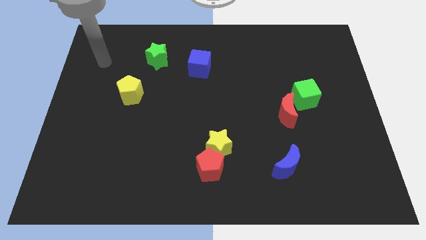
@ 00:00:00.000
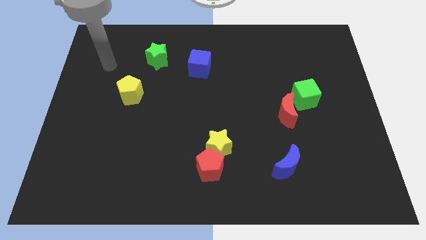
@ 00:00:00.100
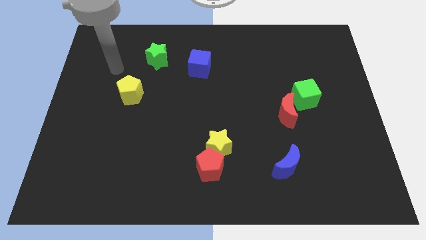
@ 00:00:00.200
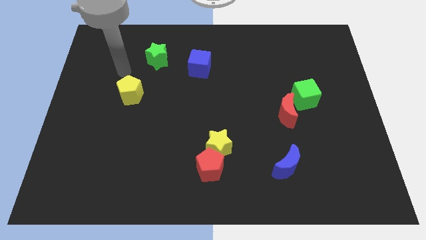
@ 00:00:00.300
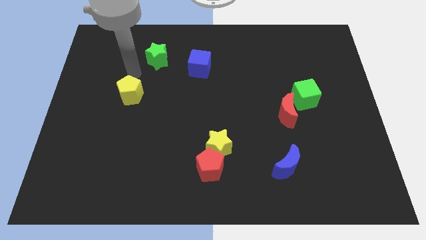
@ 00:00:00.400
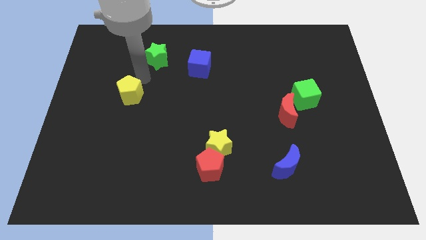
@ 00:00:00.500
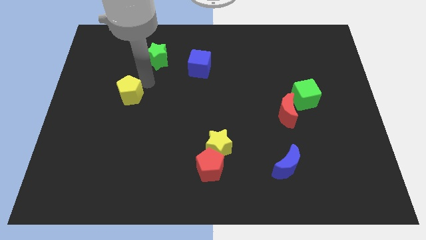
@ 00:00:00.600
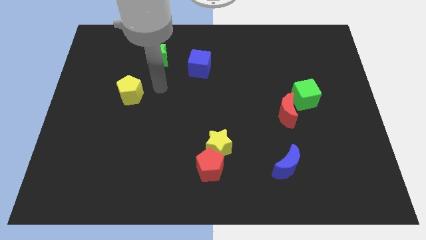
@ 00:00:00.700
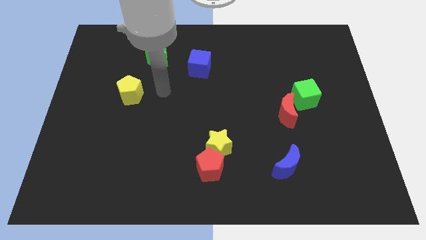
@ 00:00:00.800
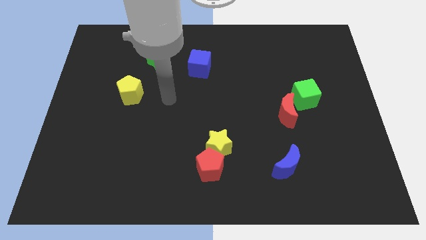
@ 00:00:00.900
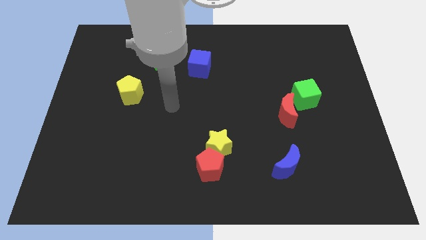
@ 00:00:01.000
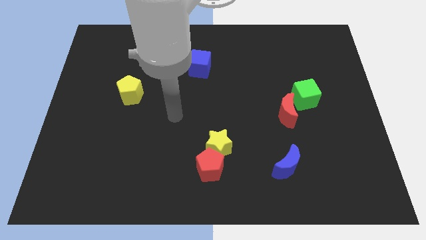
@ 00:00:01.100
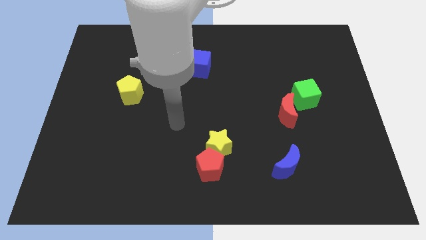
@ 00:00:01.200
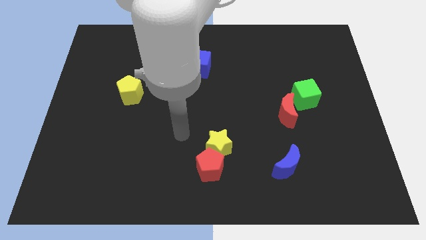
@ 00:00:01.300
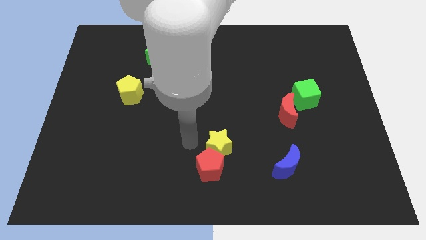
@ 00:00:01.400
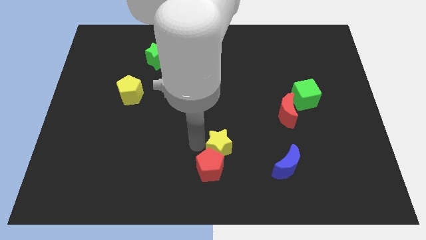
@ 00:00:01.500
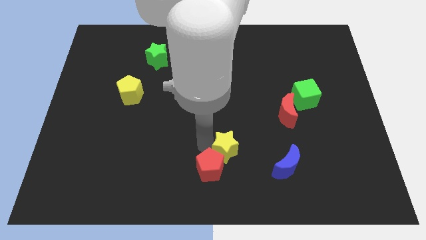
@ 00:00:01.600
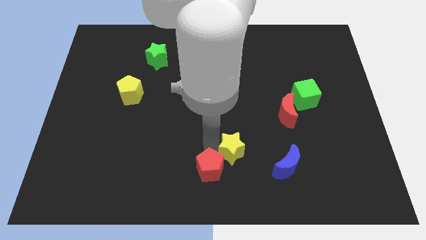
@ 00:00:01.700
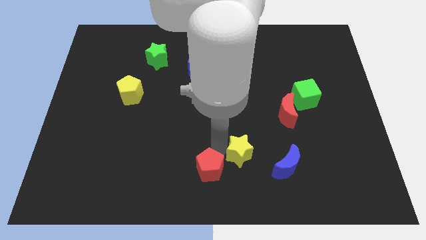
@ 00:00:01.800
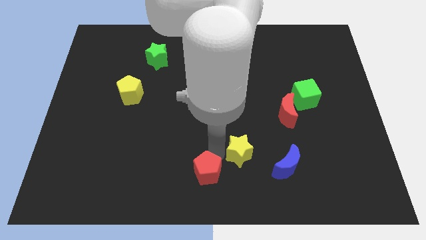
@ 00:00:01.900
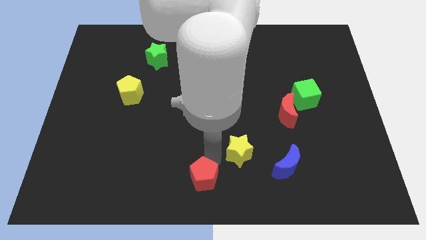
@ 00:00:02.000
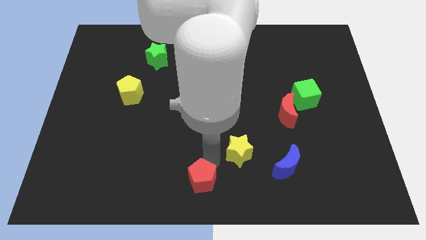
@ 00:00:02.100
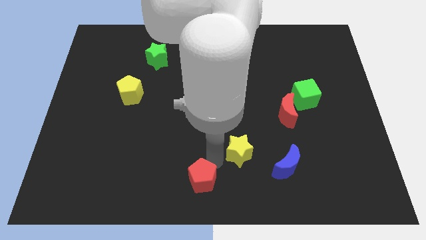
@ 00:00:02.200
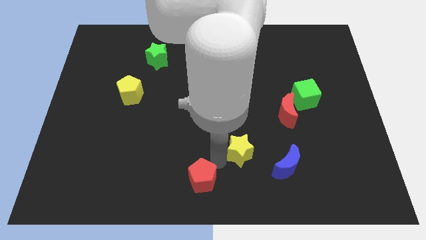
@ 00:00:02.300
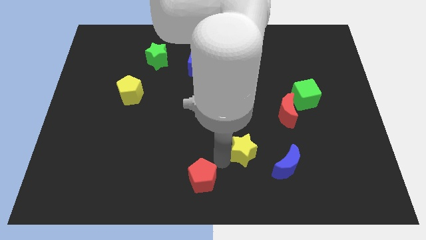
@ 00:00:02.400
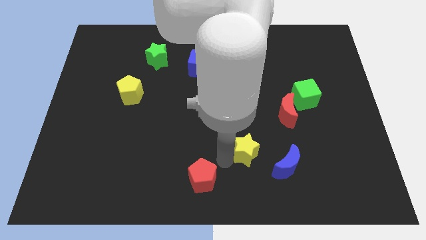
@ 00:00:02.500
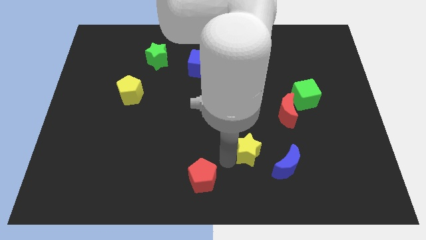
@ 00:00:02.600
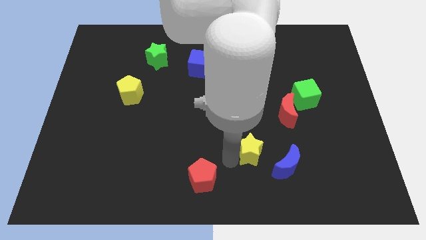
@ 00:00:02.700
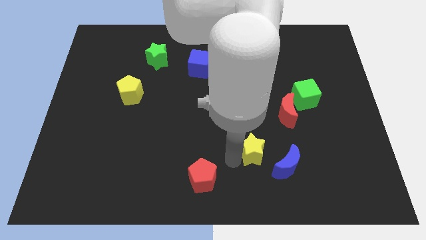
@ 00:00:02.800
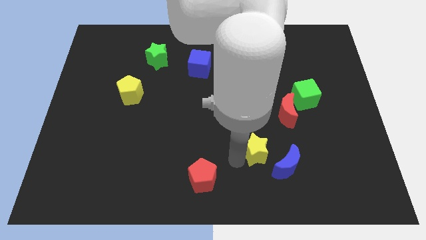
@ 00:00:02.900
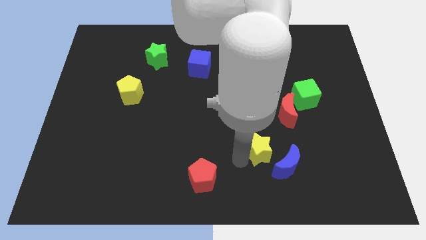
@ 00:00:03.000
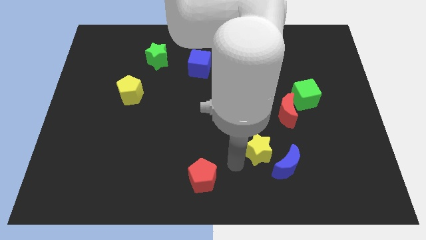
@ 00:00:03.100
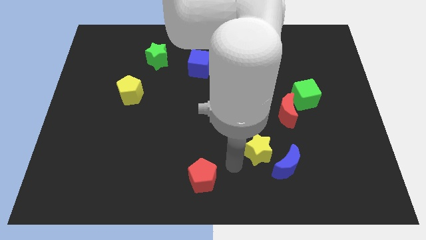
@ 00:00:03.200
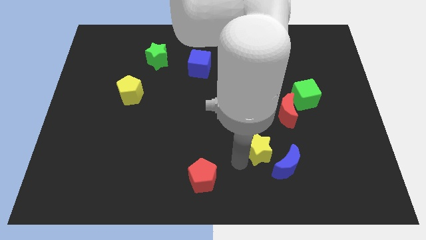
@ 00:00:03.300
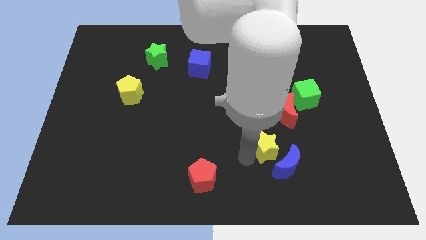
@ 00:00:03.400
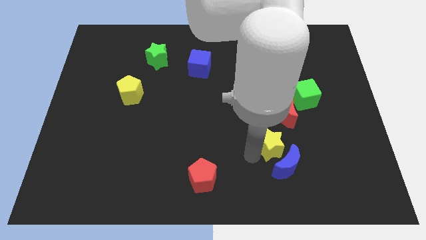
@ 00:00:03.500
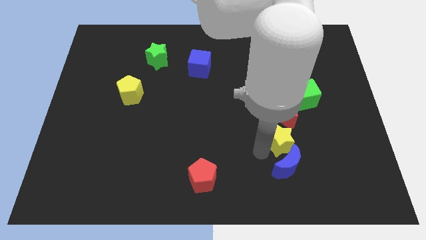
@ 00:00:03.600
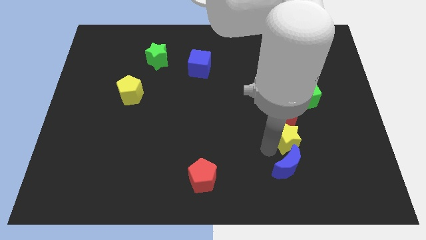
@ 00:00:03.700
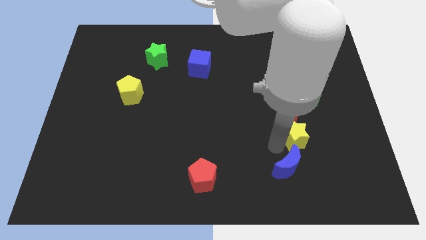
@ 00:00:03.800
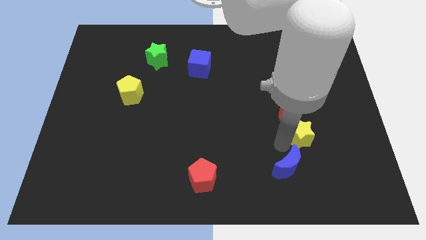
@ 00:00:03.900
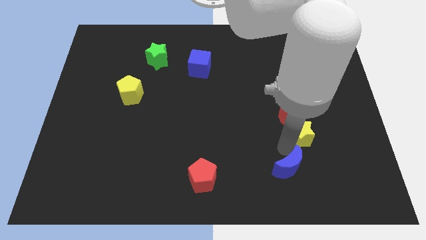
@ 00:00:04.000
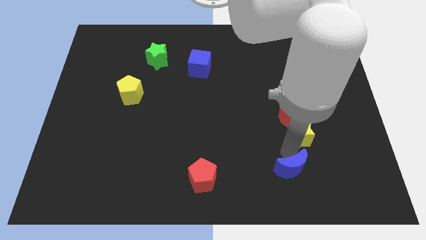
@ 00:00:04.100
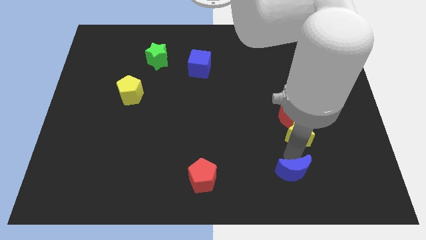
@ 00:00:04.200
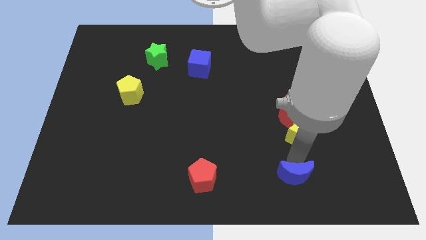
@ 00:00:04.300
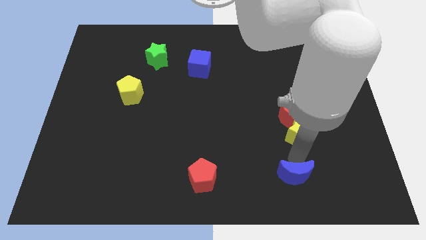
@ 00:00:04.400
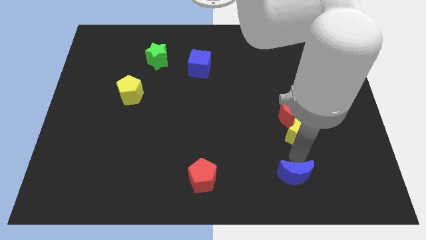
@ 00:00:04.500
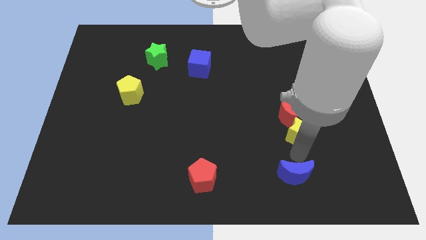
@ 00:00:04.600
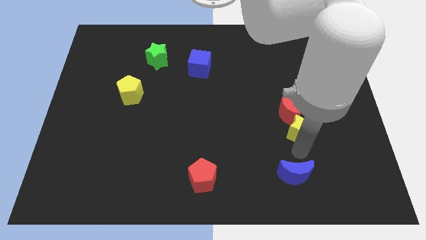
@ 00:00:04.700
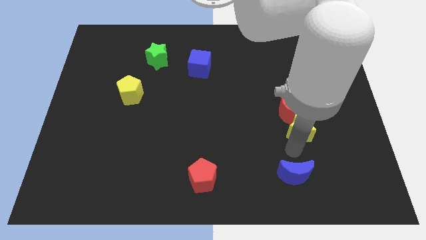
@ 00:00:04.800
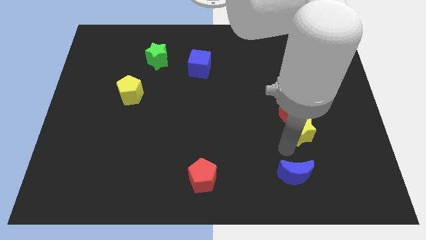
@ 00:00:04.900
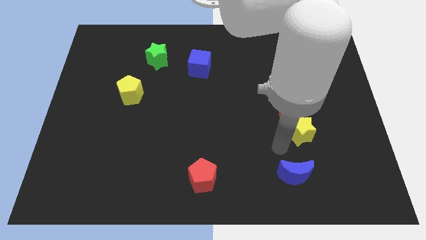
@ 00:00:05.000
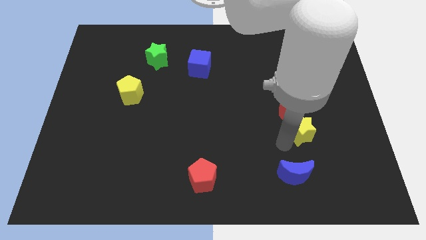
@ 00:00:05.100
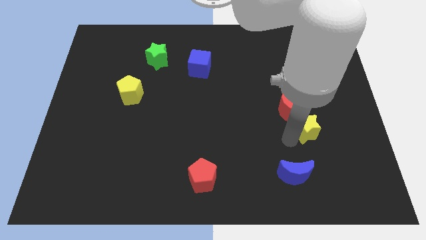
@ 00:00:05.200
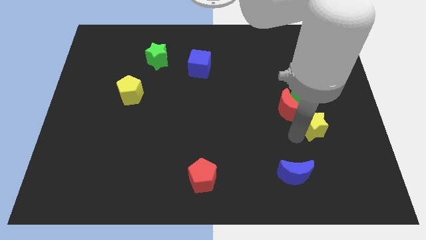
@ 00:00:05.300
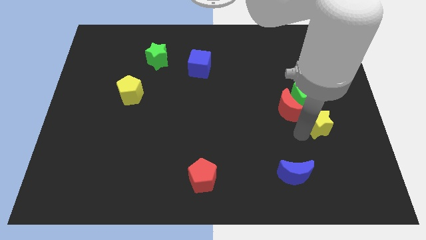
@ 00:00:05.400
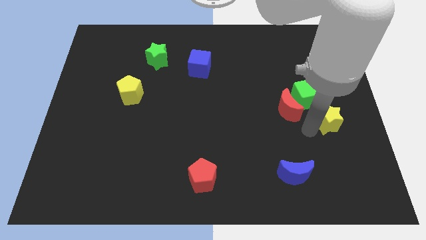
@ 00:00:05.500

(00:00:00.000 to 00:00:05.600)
slide the yellow star to the right side

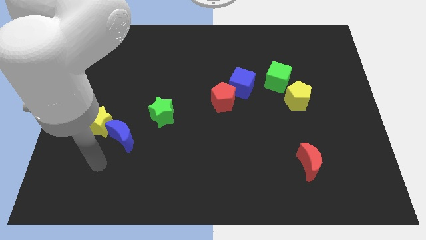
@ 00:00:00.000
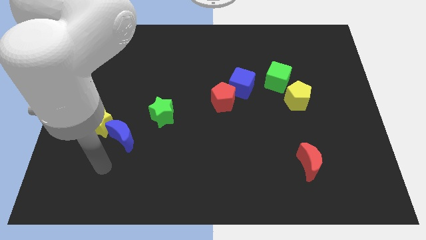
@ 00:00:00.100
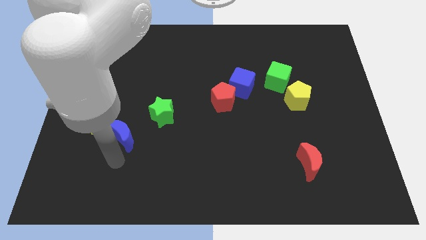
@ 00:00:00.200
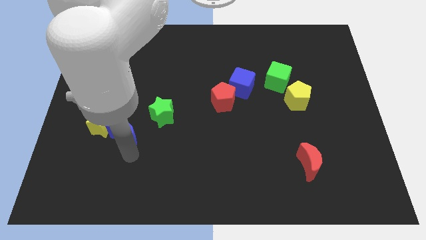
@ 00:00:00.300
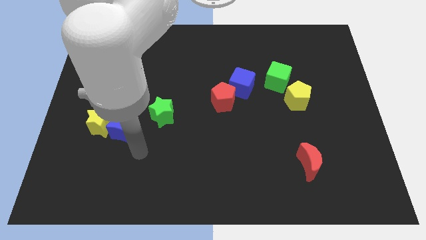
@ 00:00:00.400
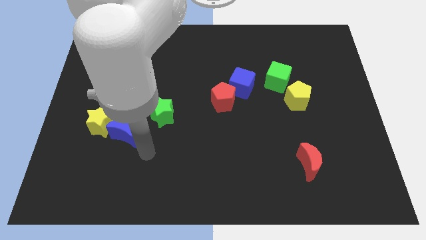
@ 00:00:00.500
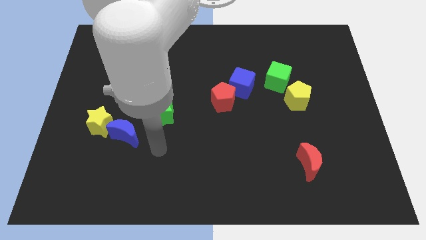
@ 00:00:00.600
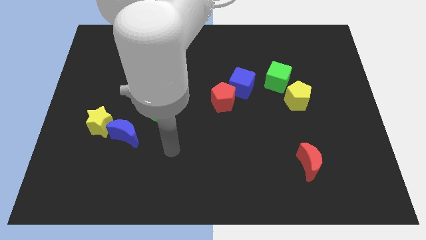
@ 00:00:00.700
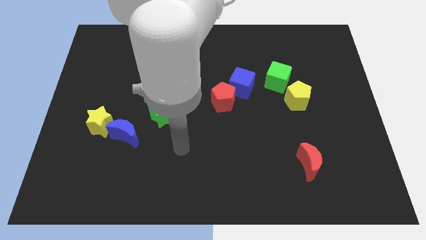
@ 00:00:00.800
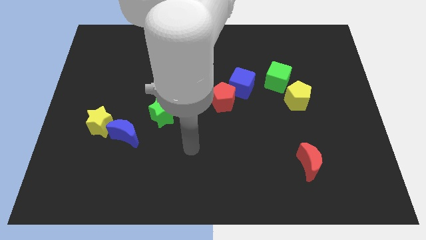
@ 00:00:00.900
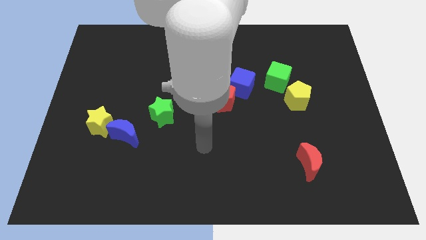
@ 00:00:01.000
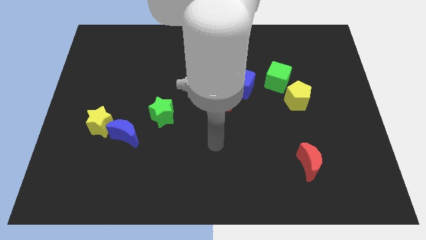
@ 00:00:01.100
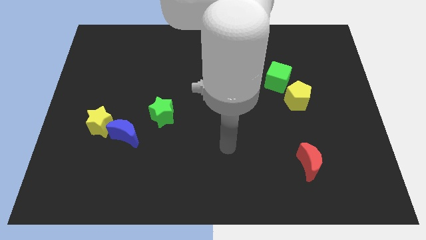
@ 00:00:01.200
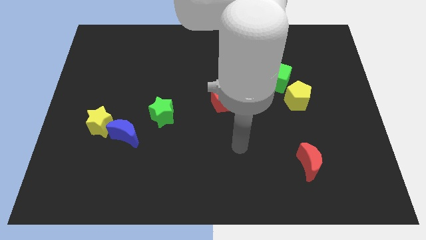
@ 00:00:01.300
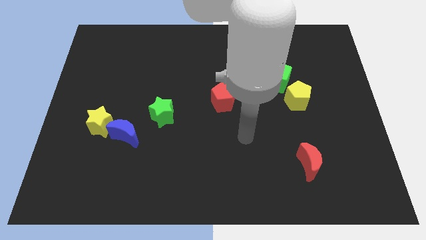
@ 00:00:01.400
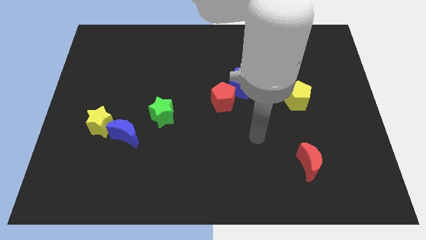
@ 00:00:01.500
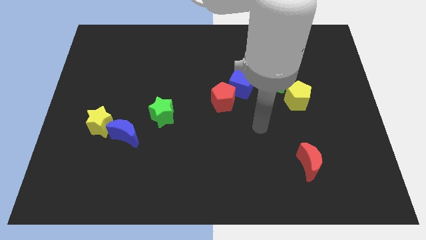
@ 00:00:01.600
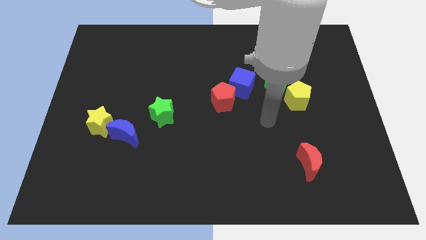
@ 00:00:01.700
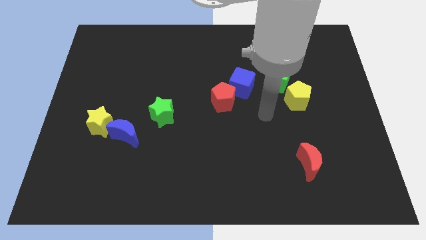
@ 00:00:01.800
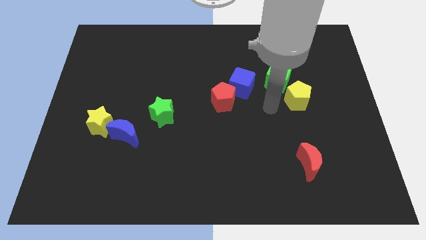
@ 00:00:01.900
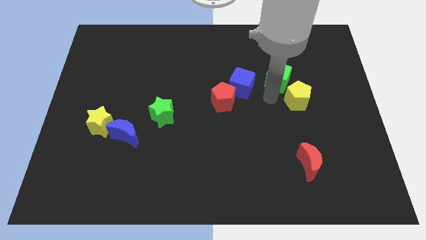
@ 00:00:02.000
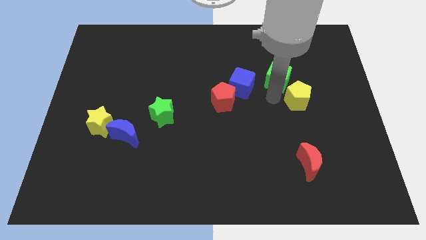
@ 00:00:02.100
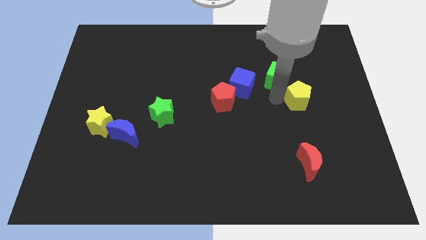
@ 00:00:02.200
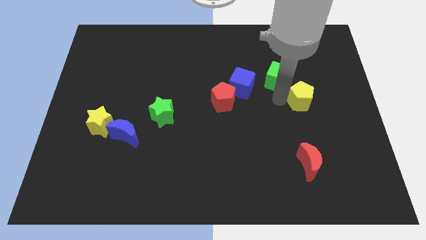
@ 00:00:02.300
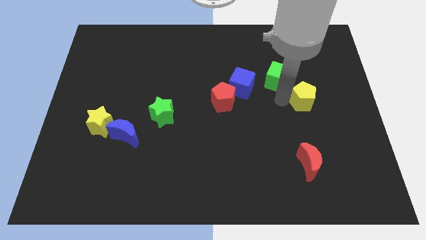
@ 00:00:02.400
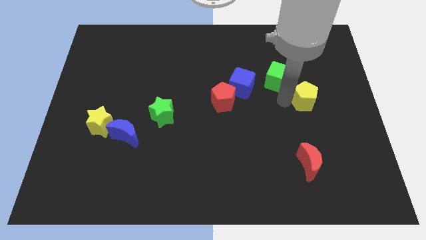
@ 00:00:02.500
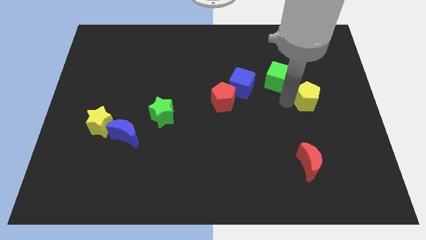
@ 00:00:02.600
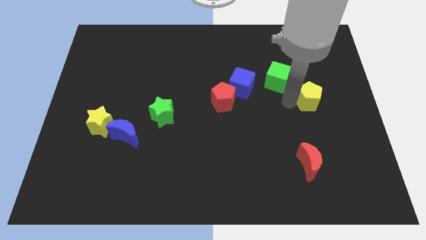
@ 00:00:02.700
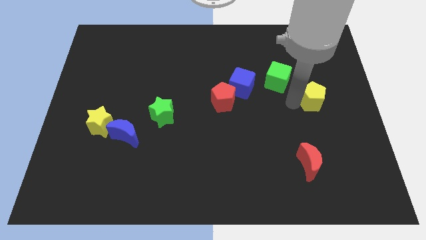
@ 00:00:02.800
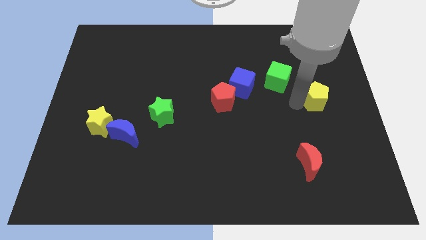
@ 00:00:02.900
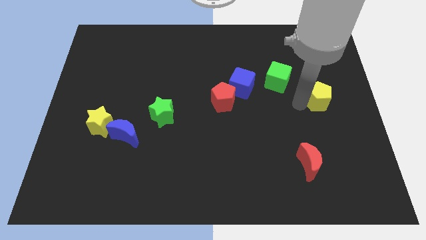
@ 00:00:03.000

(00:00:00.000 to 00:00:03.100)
move the yellow pentagon to the center right
